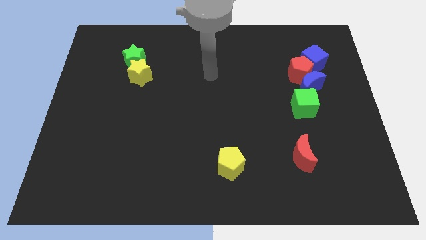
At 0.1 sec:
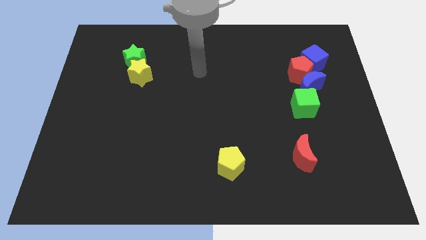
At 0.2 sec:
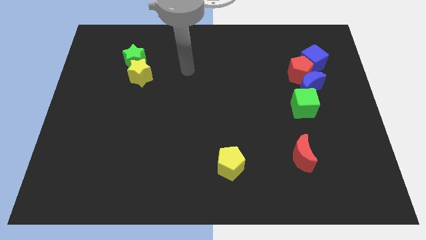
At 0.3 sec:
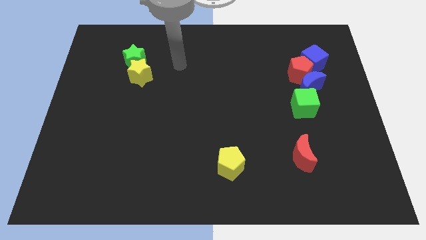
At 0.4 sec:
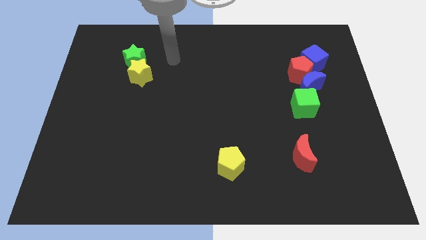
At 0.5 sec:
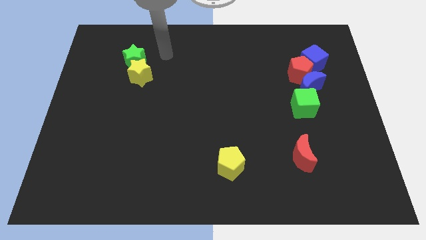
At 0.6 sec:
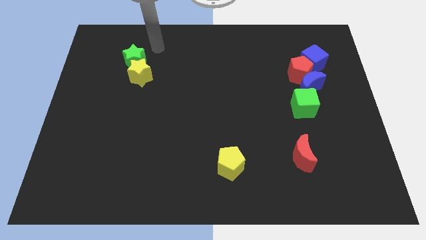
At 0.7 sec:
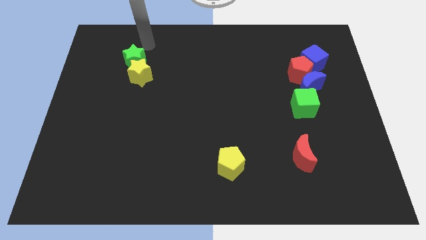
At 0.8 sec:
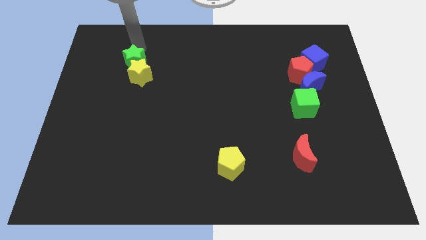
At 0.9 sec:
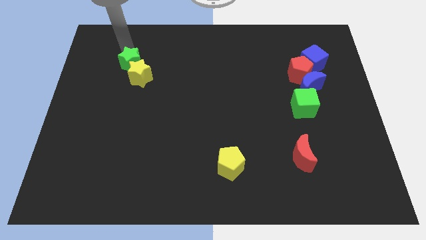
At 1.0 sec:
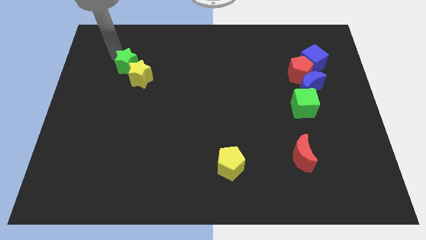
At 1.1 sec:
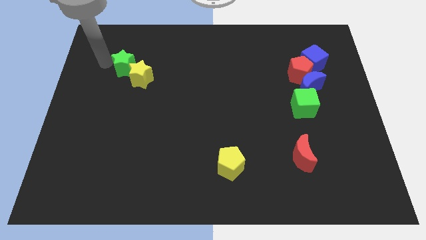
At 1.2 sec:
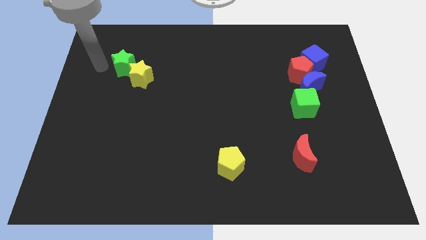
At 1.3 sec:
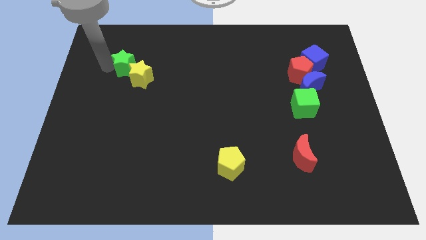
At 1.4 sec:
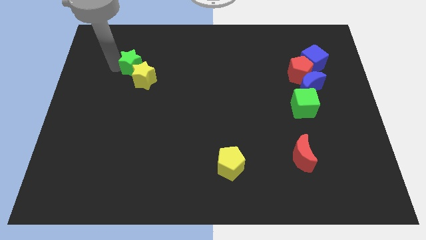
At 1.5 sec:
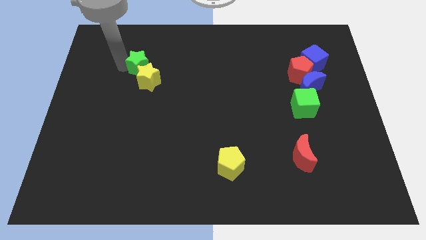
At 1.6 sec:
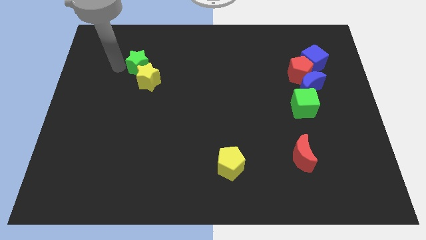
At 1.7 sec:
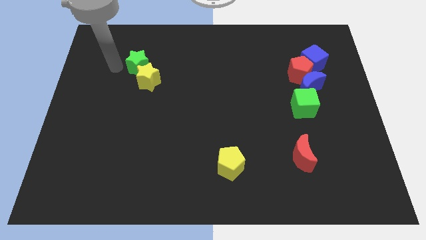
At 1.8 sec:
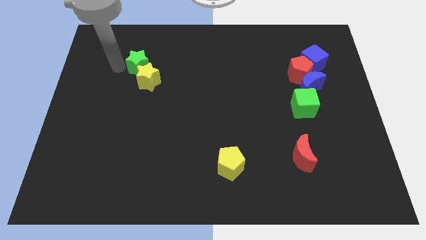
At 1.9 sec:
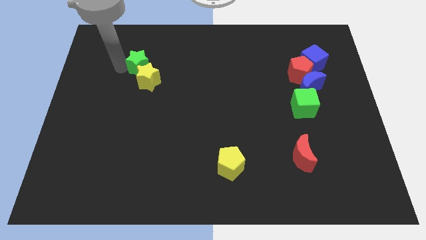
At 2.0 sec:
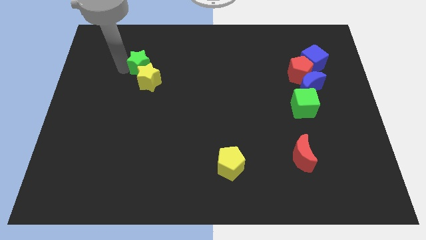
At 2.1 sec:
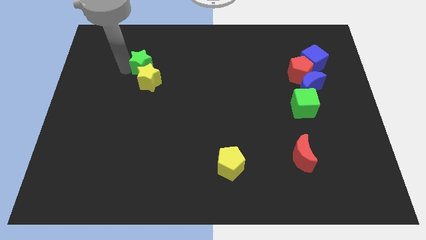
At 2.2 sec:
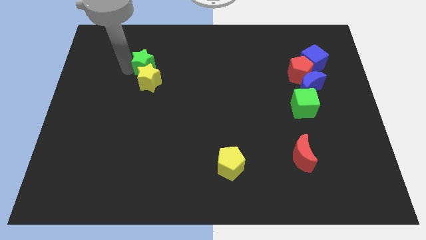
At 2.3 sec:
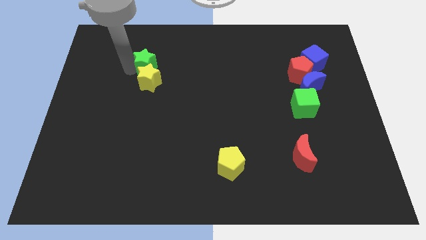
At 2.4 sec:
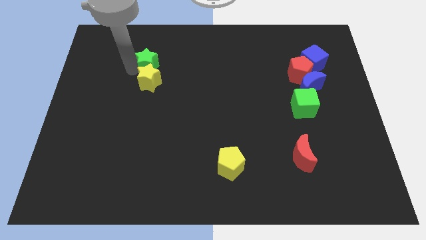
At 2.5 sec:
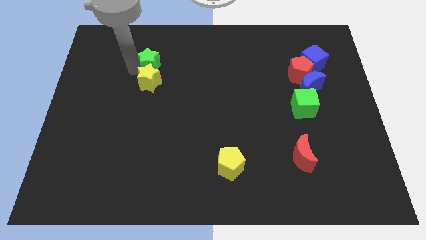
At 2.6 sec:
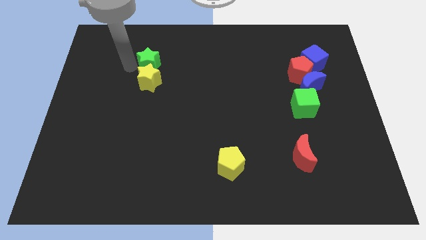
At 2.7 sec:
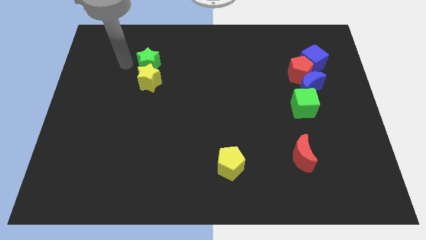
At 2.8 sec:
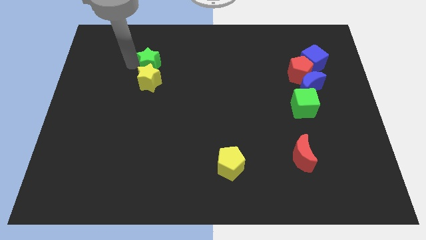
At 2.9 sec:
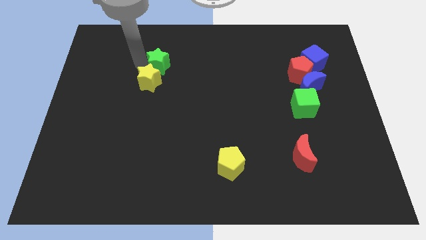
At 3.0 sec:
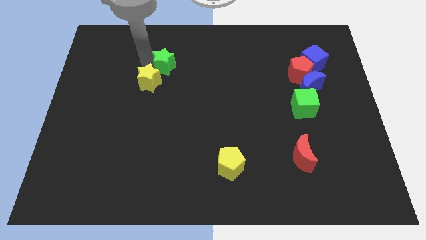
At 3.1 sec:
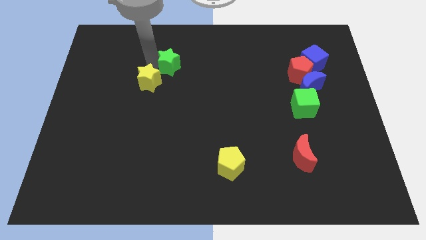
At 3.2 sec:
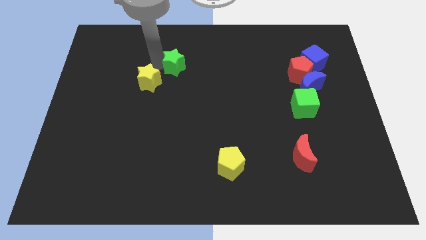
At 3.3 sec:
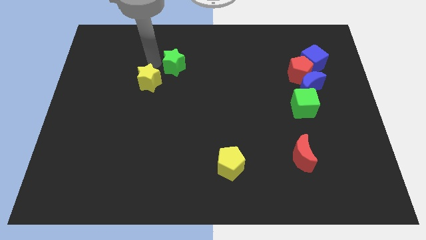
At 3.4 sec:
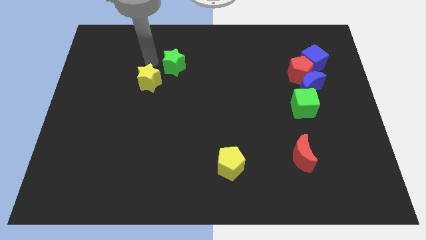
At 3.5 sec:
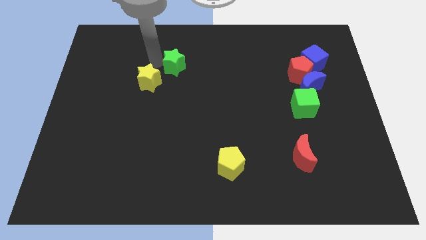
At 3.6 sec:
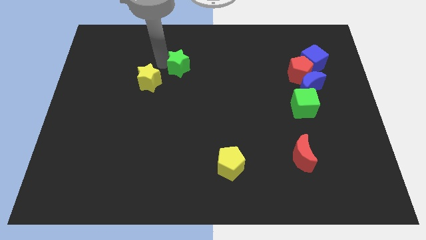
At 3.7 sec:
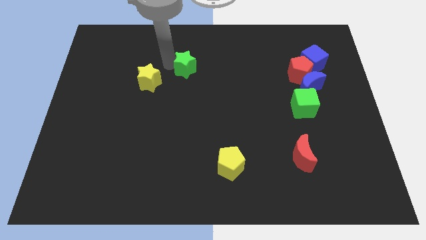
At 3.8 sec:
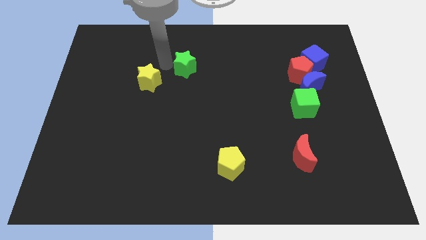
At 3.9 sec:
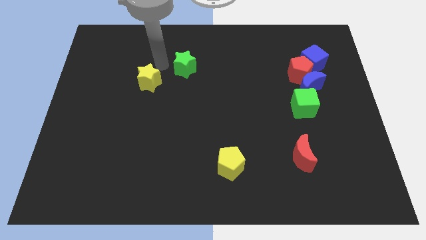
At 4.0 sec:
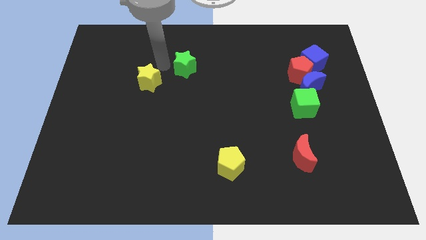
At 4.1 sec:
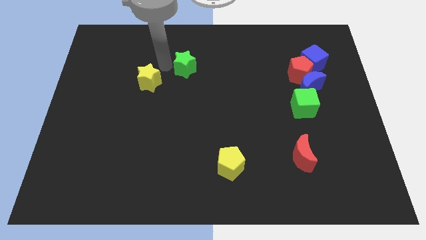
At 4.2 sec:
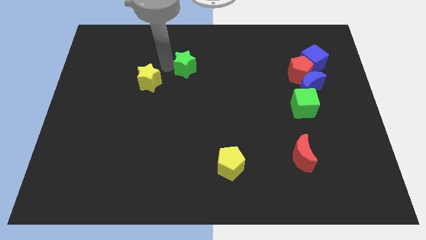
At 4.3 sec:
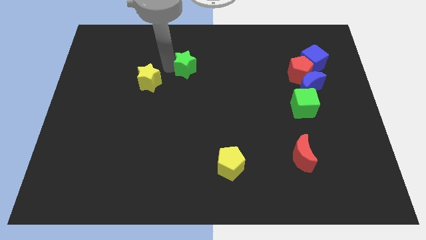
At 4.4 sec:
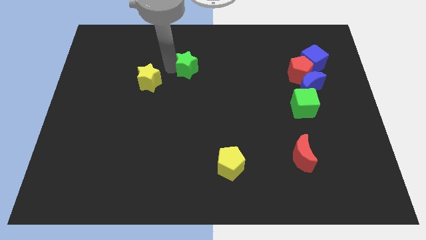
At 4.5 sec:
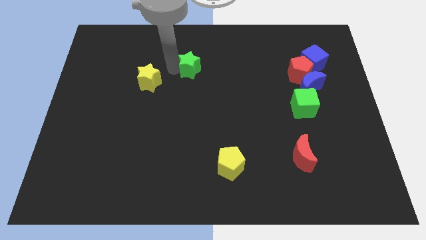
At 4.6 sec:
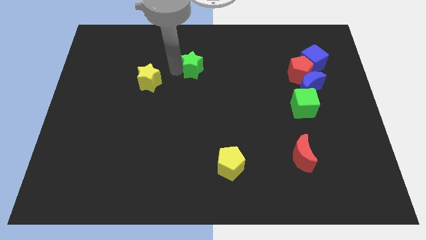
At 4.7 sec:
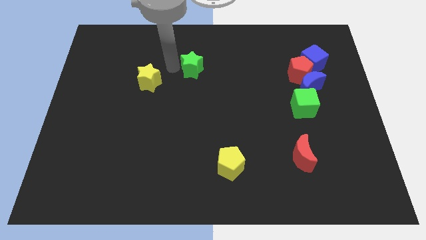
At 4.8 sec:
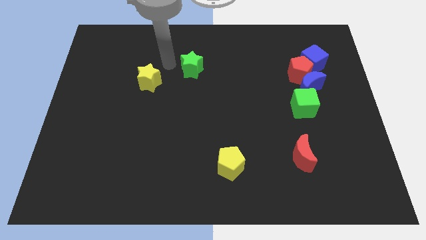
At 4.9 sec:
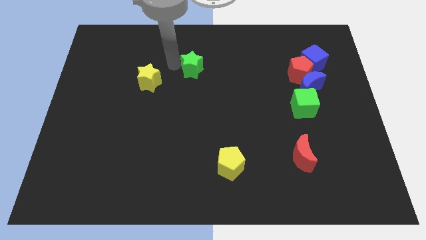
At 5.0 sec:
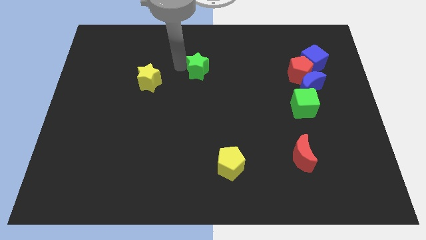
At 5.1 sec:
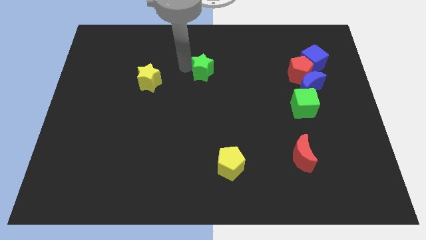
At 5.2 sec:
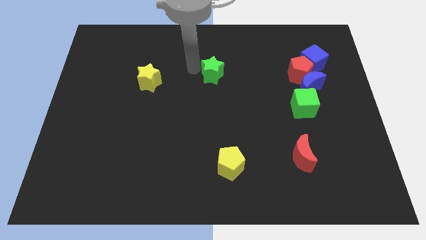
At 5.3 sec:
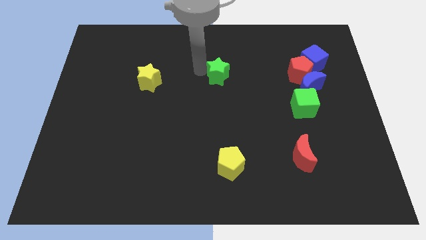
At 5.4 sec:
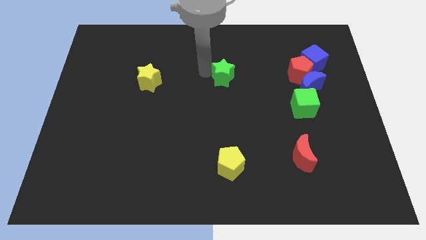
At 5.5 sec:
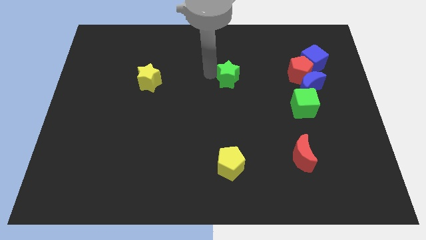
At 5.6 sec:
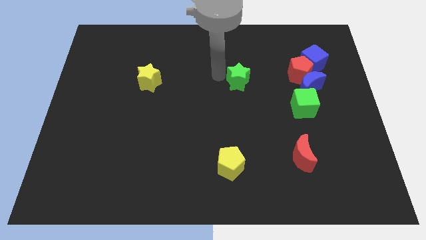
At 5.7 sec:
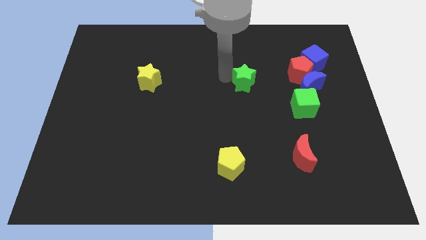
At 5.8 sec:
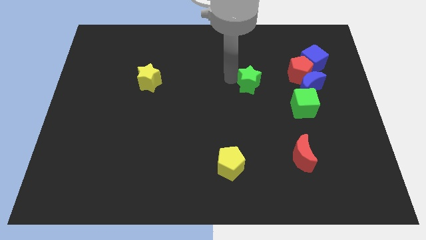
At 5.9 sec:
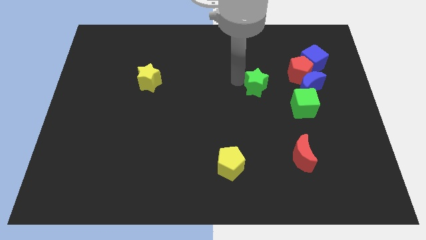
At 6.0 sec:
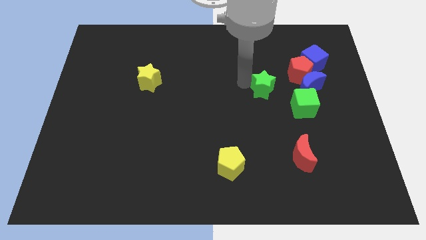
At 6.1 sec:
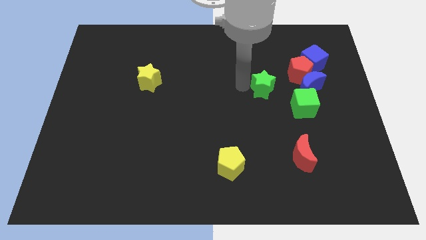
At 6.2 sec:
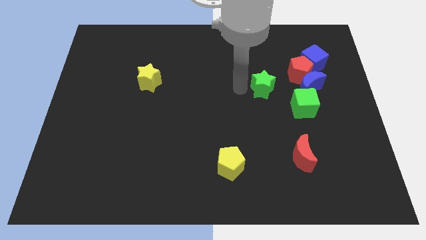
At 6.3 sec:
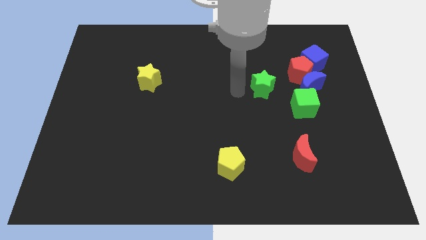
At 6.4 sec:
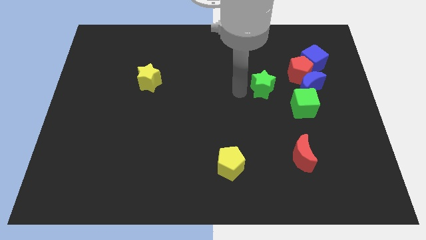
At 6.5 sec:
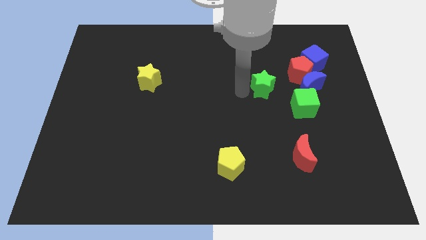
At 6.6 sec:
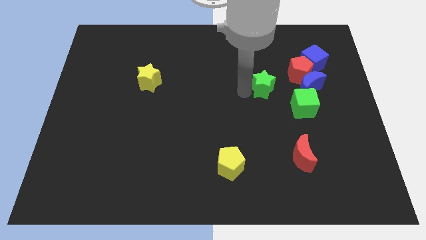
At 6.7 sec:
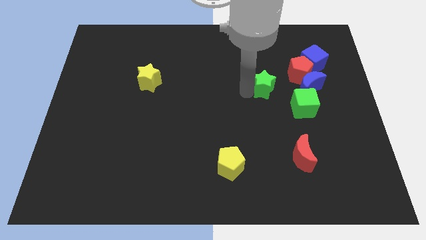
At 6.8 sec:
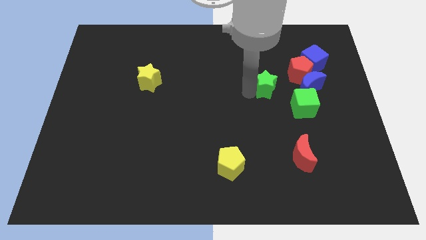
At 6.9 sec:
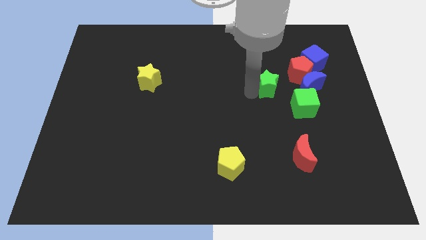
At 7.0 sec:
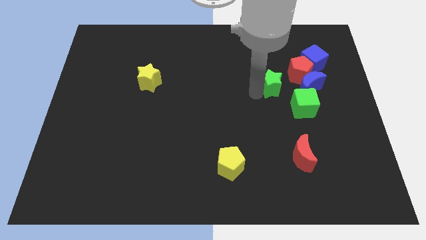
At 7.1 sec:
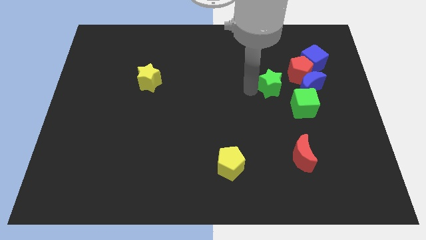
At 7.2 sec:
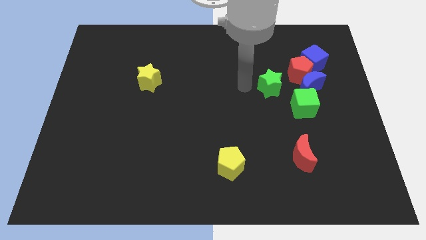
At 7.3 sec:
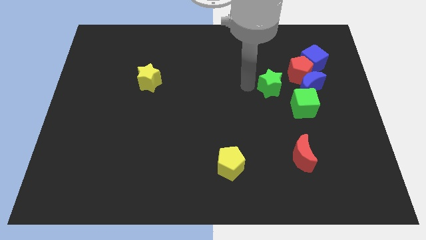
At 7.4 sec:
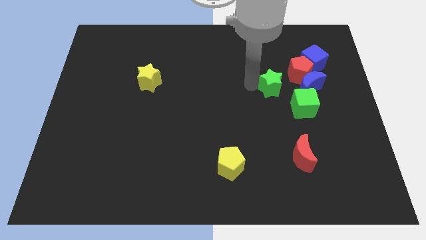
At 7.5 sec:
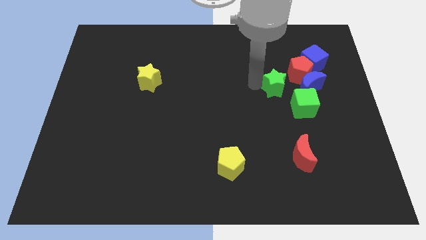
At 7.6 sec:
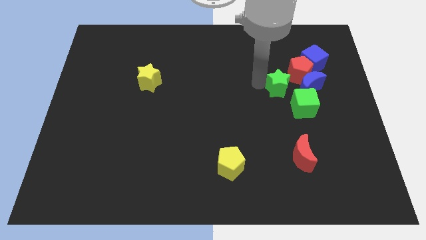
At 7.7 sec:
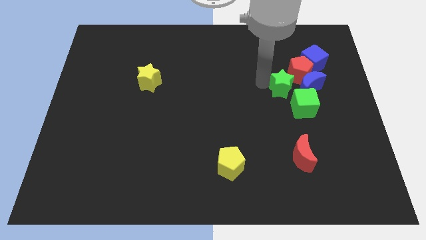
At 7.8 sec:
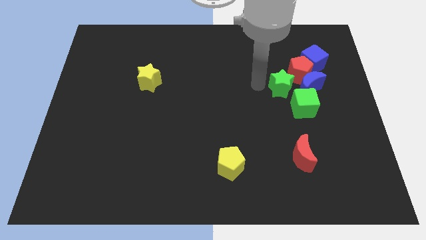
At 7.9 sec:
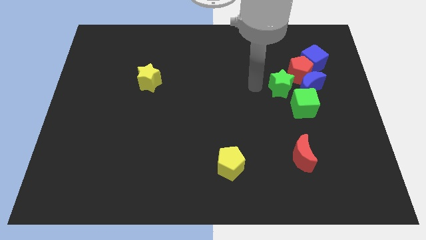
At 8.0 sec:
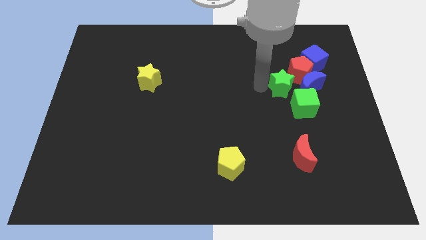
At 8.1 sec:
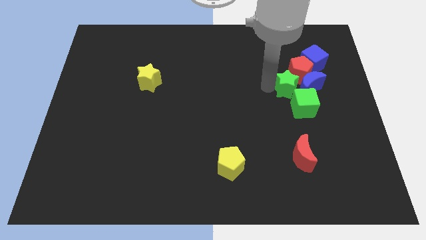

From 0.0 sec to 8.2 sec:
put the green star close to the blue moon
